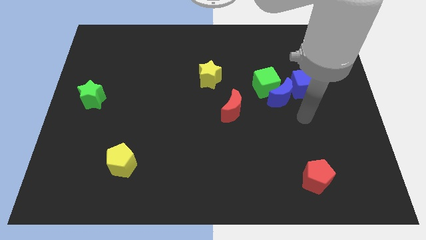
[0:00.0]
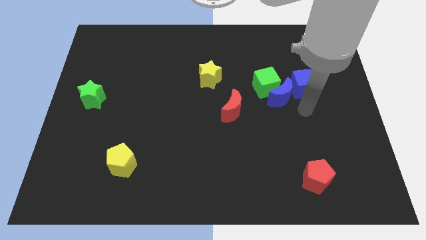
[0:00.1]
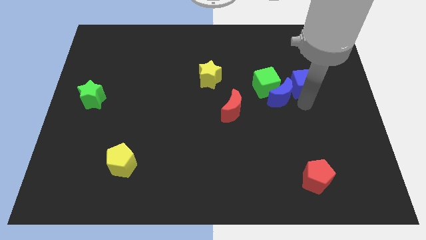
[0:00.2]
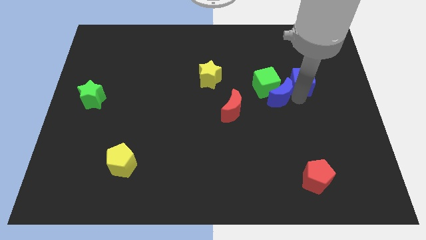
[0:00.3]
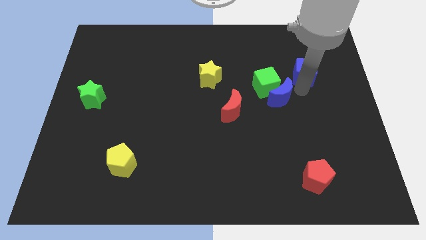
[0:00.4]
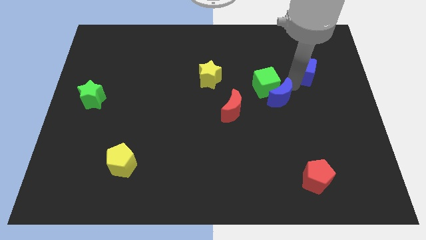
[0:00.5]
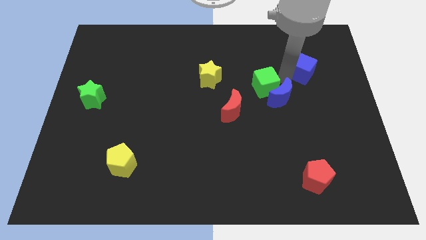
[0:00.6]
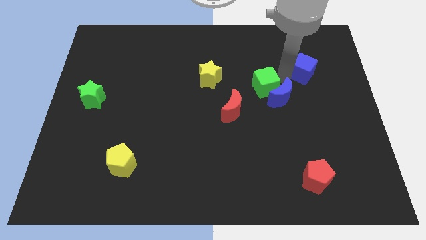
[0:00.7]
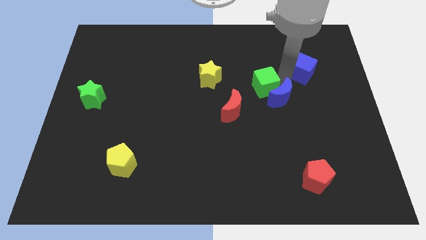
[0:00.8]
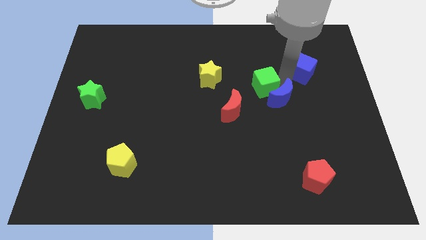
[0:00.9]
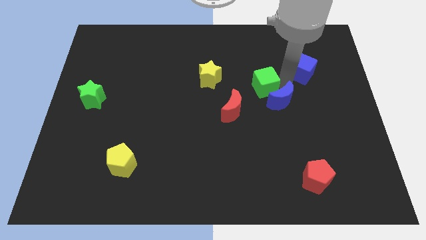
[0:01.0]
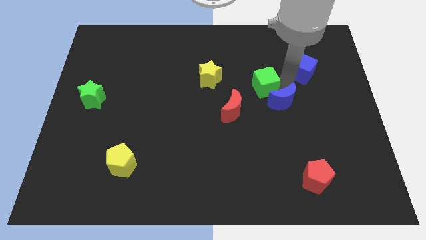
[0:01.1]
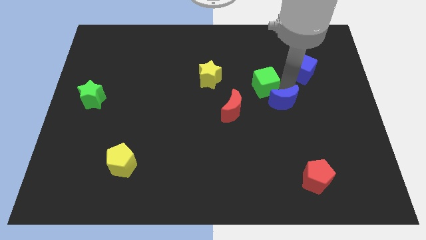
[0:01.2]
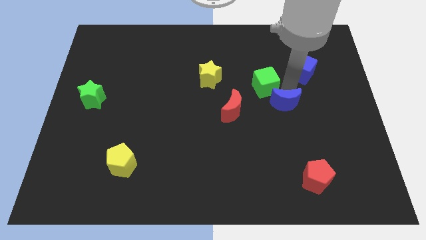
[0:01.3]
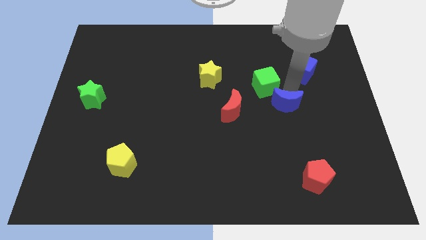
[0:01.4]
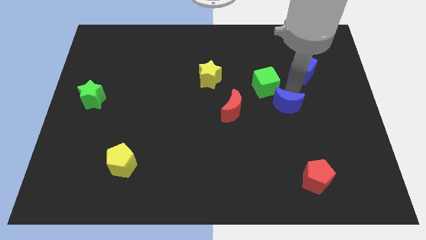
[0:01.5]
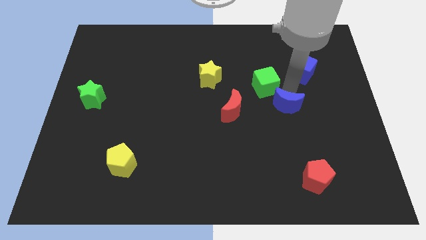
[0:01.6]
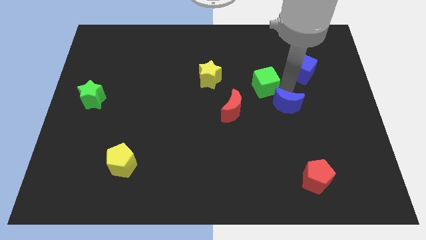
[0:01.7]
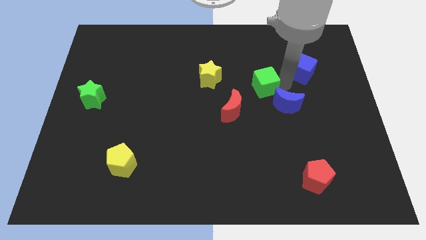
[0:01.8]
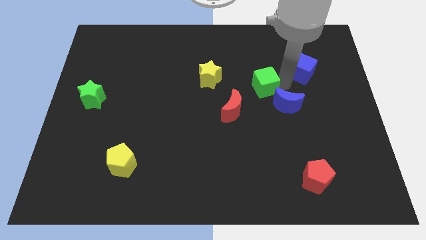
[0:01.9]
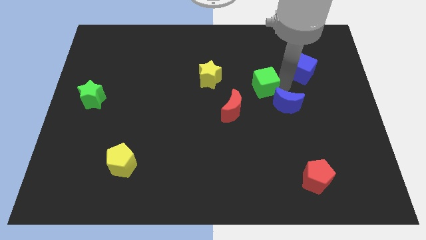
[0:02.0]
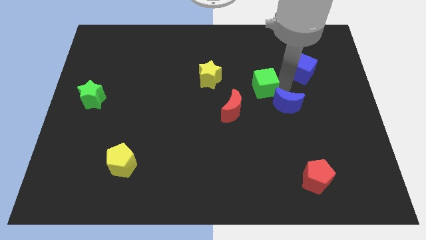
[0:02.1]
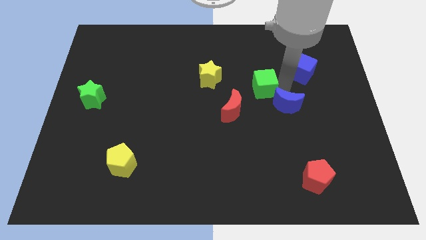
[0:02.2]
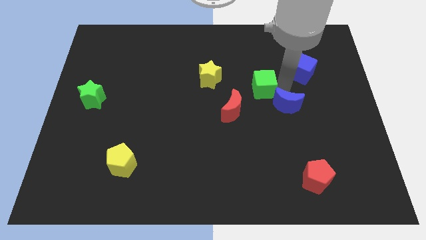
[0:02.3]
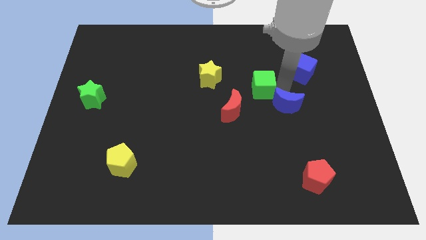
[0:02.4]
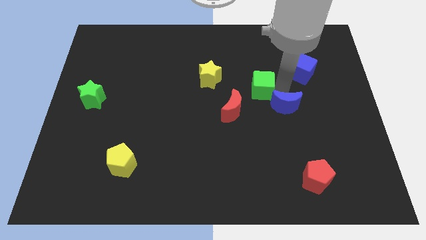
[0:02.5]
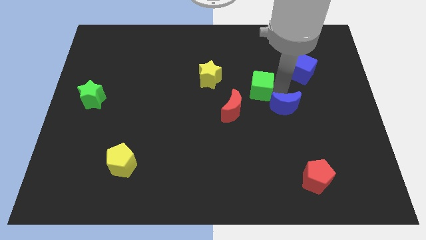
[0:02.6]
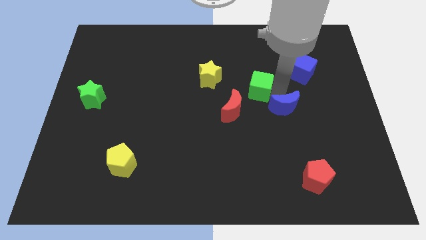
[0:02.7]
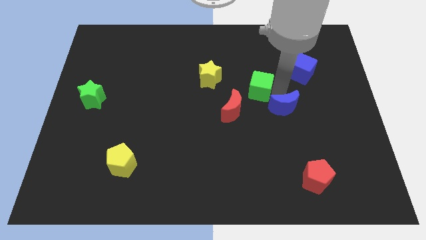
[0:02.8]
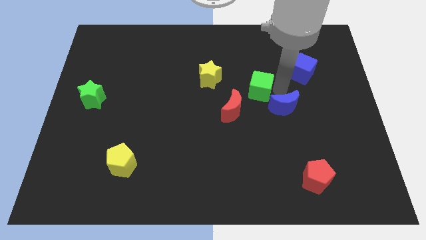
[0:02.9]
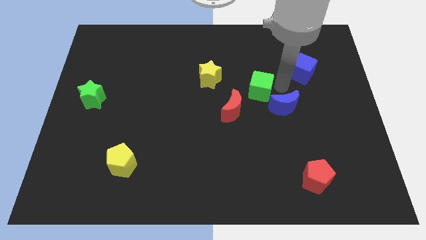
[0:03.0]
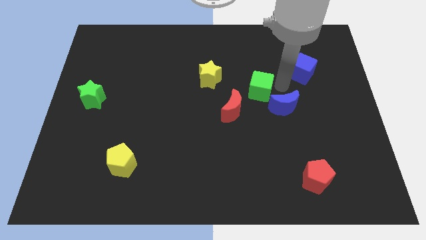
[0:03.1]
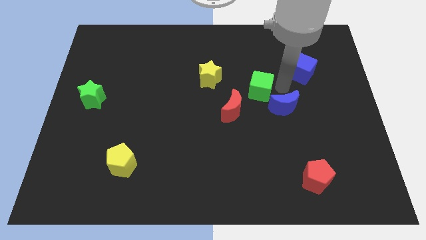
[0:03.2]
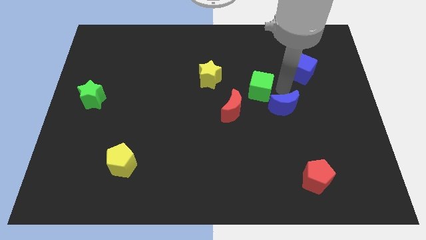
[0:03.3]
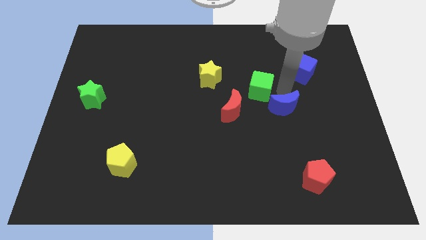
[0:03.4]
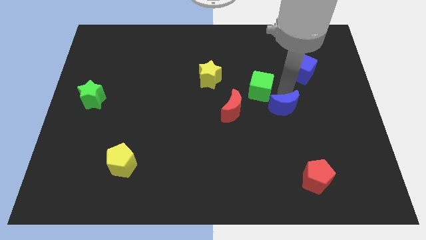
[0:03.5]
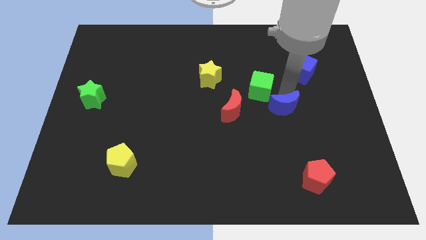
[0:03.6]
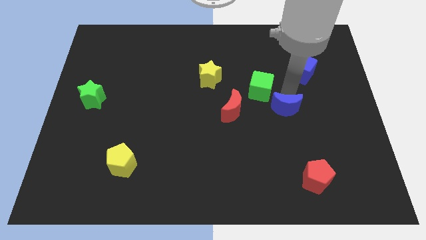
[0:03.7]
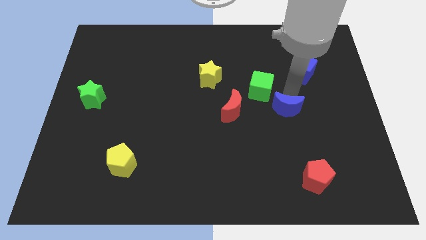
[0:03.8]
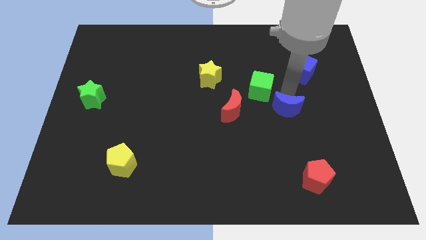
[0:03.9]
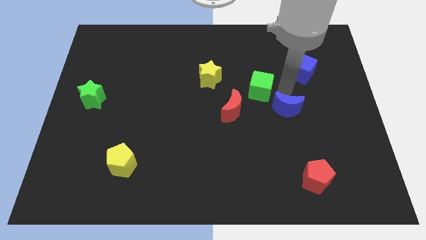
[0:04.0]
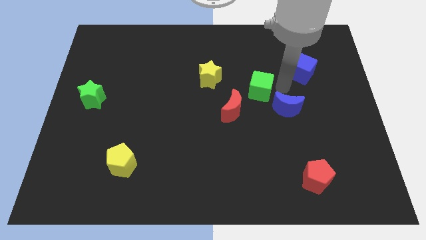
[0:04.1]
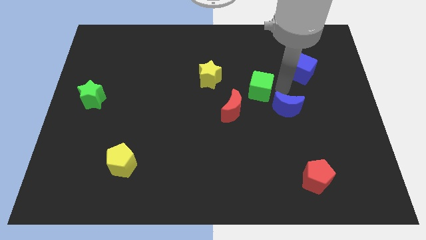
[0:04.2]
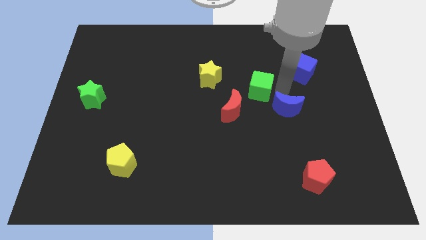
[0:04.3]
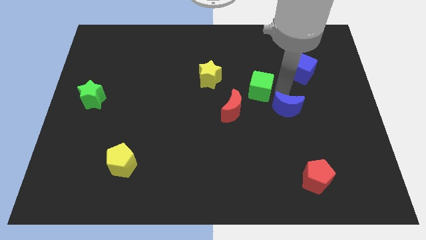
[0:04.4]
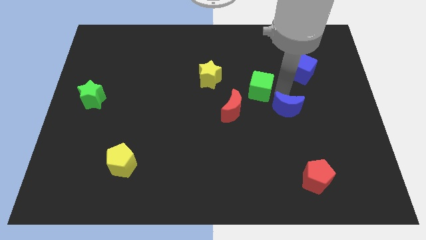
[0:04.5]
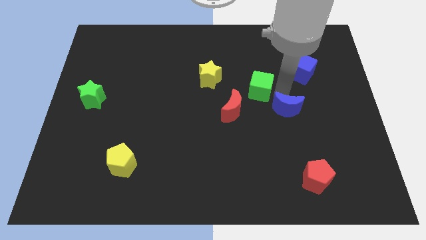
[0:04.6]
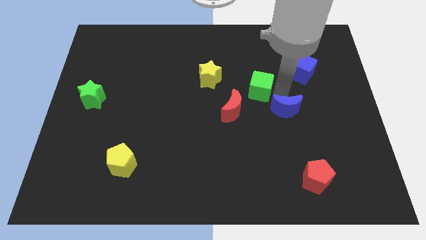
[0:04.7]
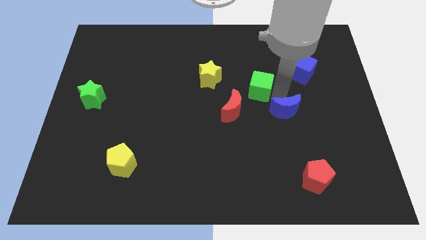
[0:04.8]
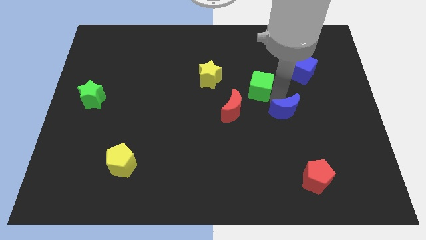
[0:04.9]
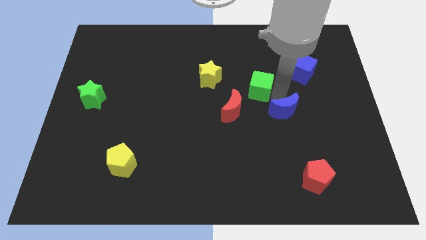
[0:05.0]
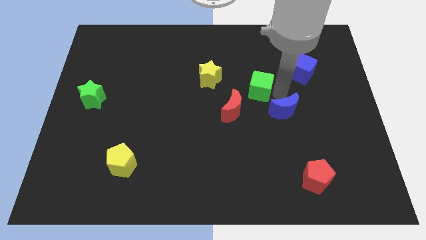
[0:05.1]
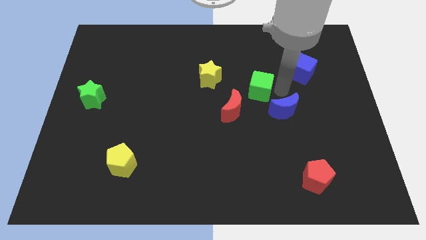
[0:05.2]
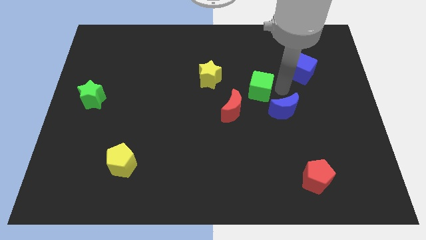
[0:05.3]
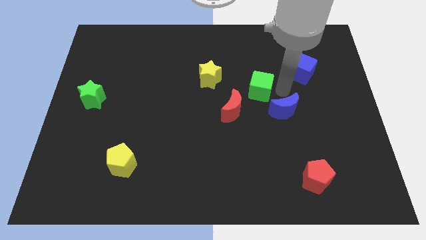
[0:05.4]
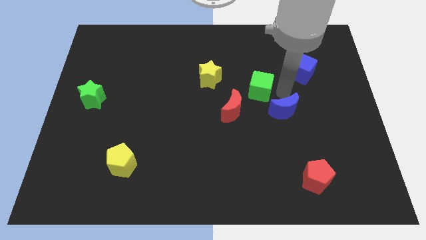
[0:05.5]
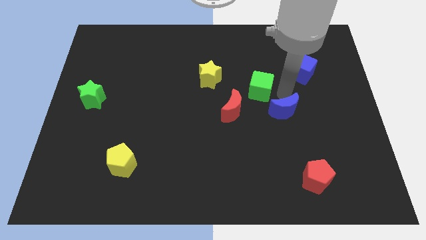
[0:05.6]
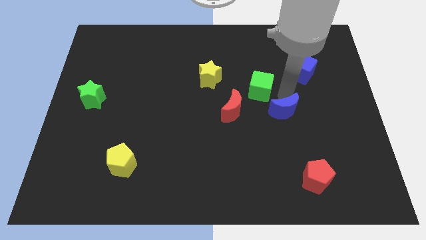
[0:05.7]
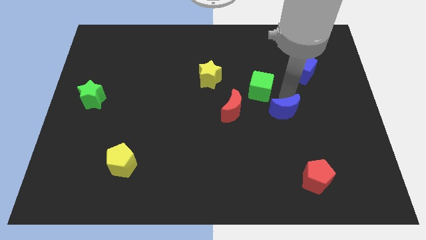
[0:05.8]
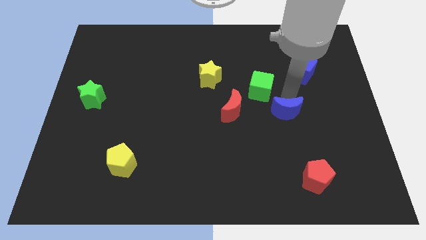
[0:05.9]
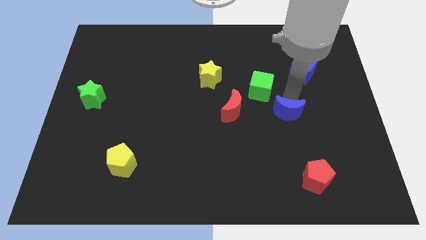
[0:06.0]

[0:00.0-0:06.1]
move the blue moon away from the green cube and blue cube

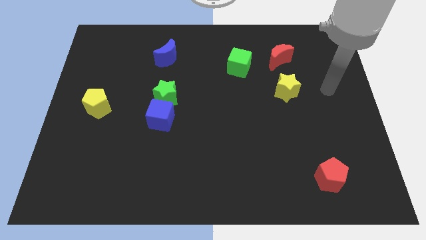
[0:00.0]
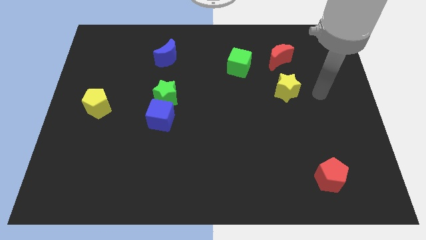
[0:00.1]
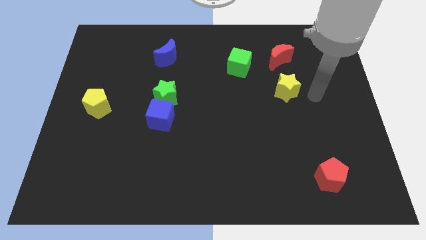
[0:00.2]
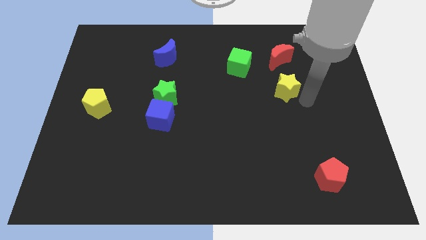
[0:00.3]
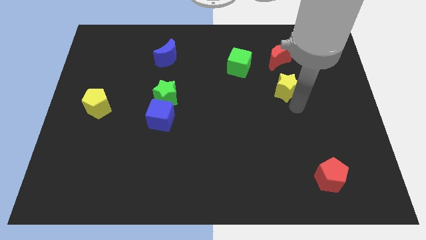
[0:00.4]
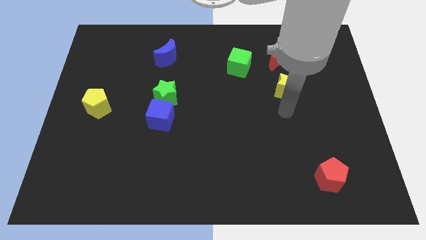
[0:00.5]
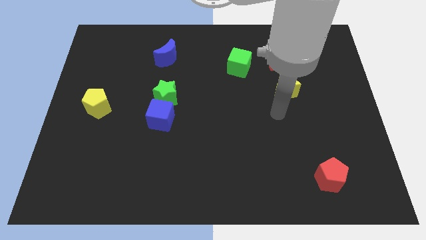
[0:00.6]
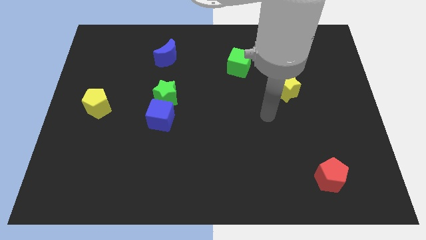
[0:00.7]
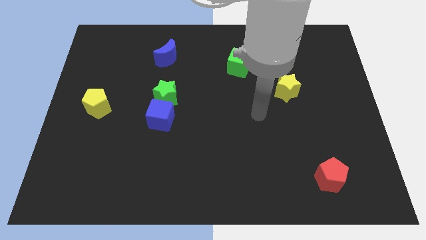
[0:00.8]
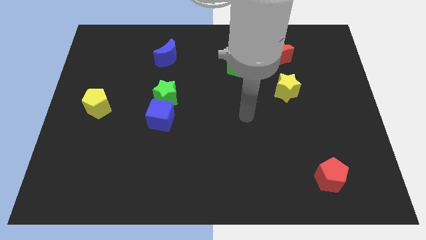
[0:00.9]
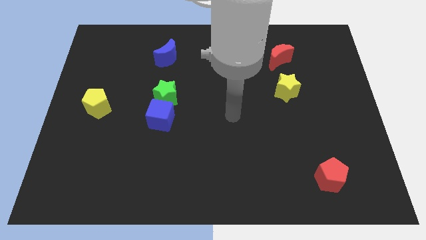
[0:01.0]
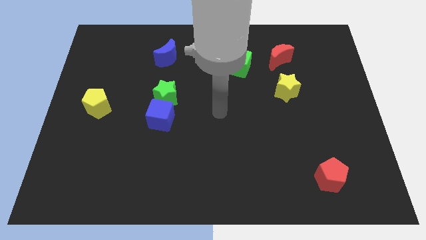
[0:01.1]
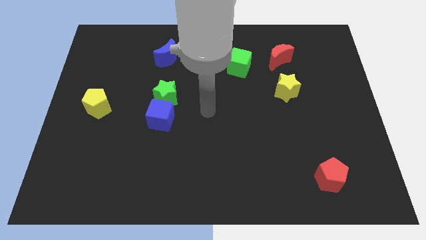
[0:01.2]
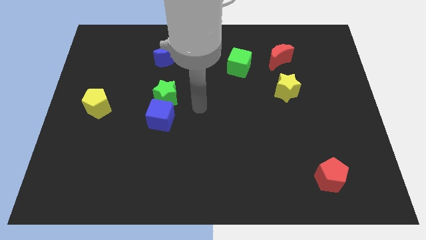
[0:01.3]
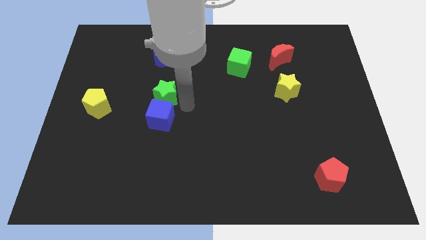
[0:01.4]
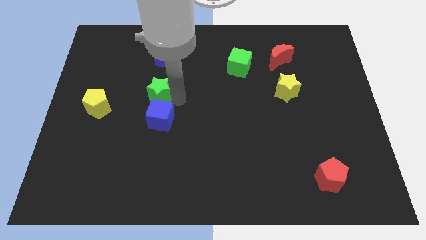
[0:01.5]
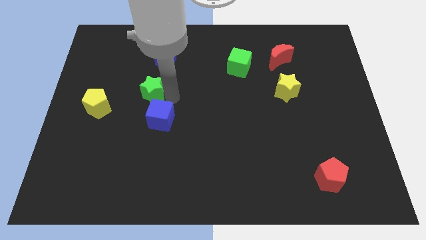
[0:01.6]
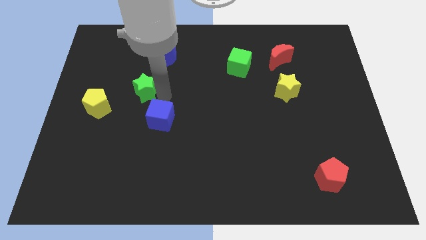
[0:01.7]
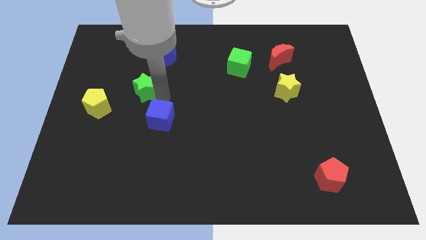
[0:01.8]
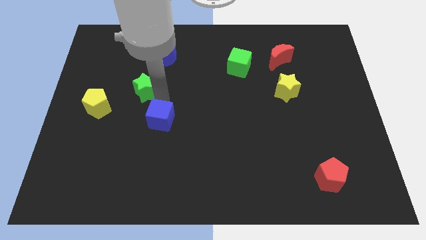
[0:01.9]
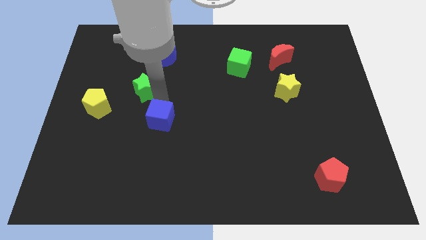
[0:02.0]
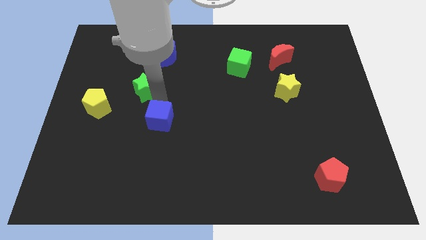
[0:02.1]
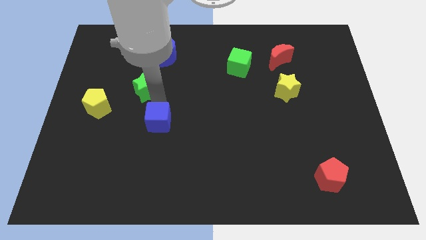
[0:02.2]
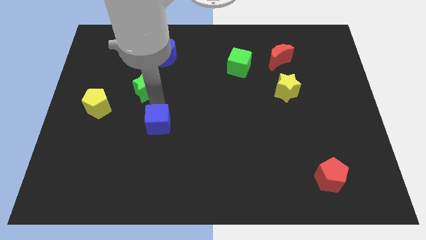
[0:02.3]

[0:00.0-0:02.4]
move the blue cube away from the green star

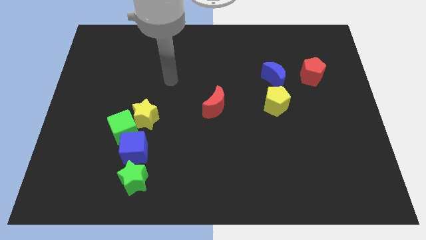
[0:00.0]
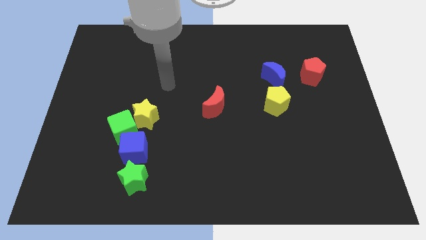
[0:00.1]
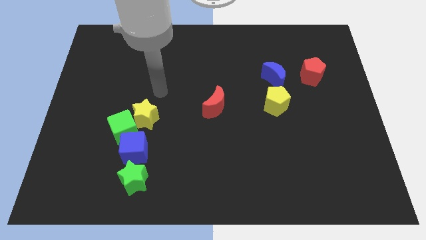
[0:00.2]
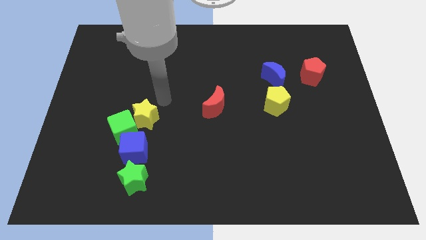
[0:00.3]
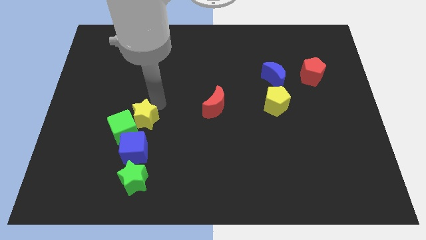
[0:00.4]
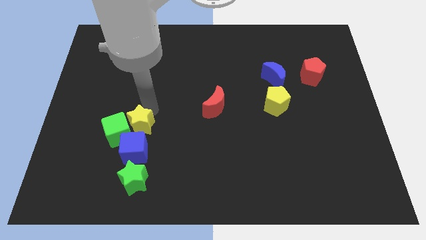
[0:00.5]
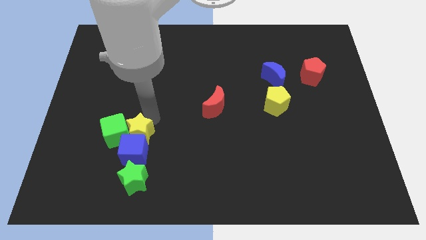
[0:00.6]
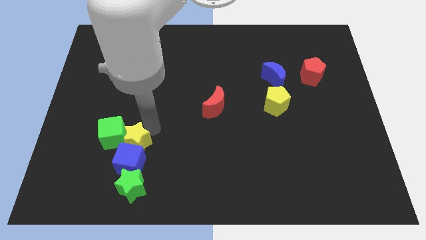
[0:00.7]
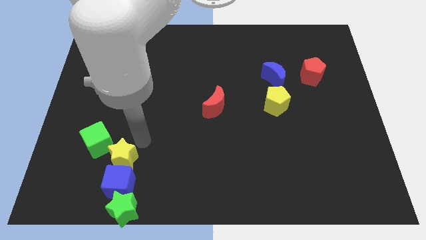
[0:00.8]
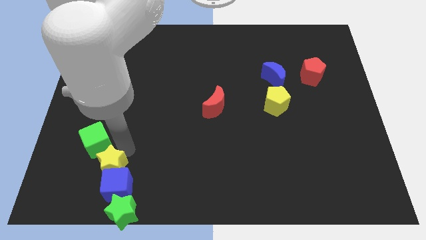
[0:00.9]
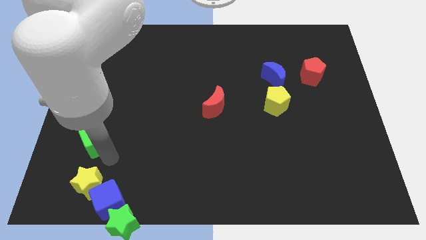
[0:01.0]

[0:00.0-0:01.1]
pull the green cube apart from the yellow star and blue cube
